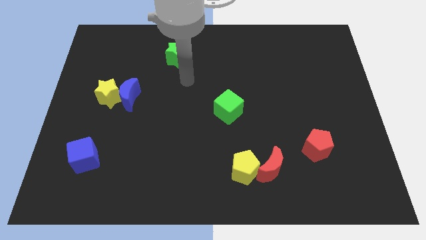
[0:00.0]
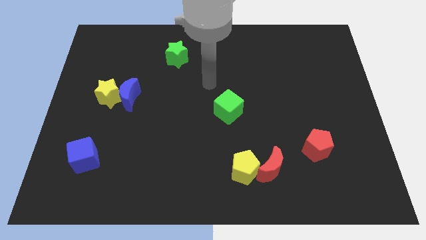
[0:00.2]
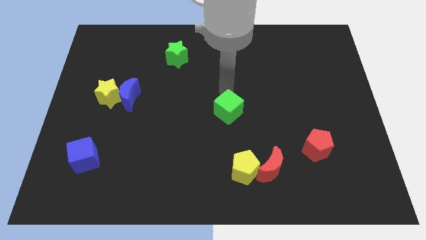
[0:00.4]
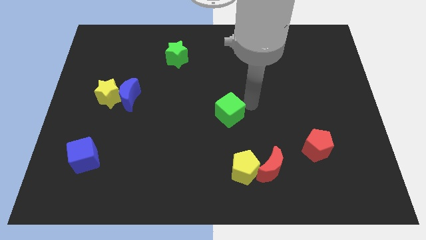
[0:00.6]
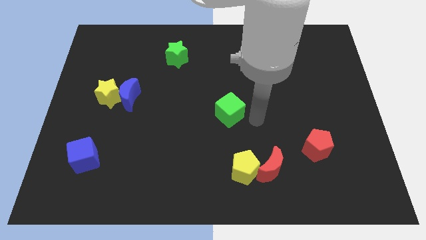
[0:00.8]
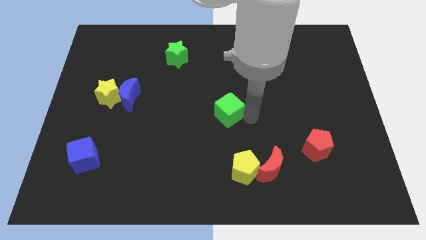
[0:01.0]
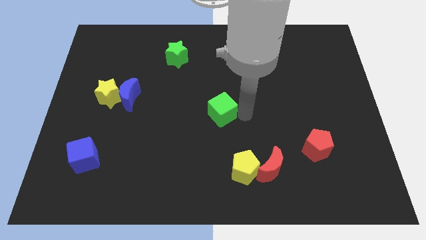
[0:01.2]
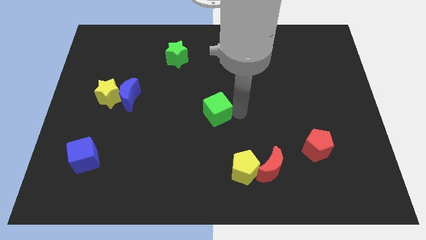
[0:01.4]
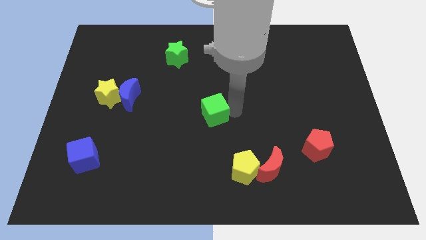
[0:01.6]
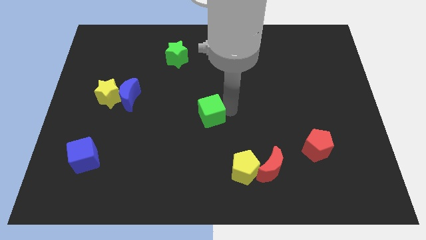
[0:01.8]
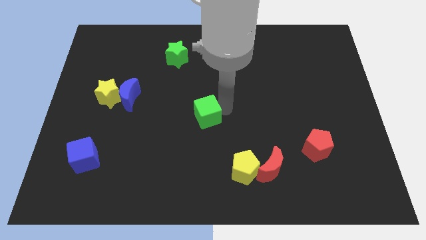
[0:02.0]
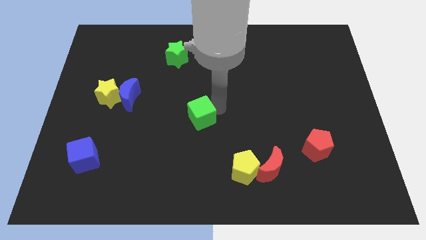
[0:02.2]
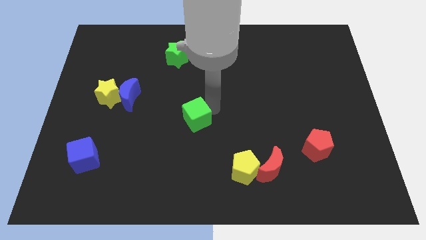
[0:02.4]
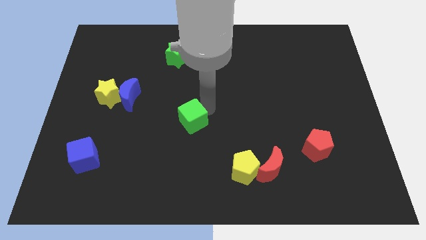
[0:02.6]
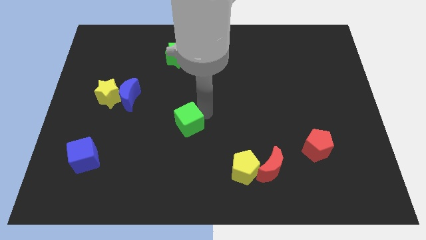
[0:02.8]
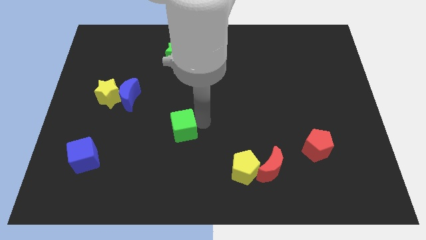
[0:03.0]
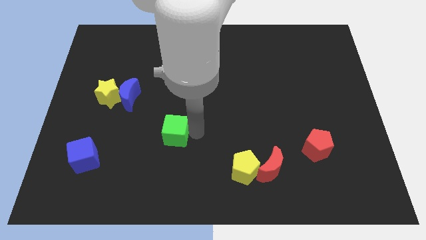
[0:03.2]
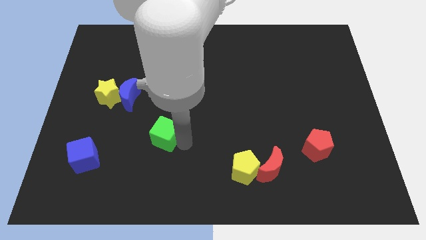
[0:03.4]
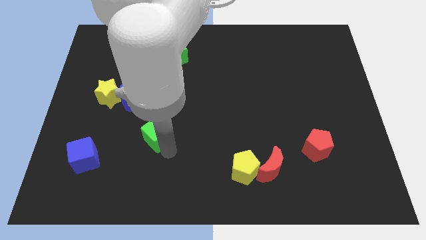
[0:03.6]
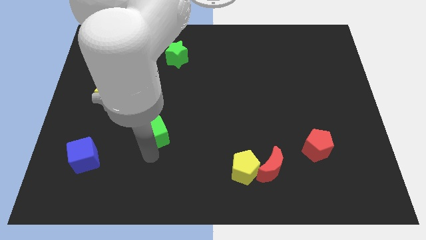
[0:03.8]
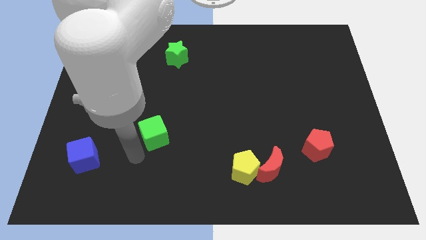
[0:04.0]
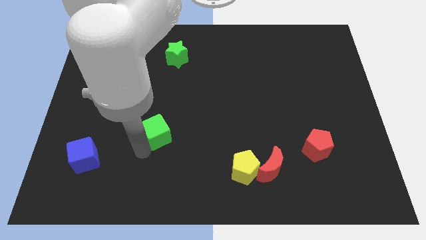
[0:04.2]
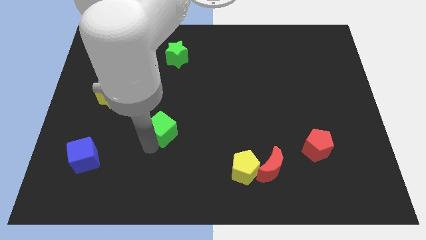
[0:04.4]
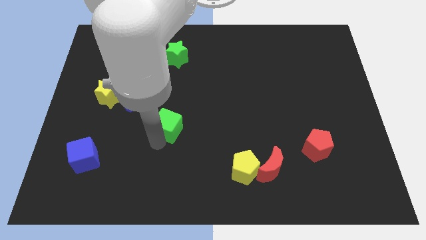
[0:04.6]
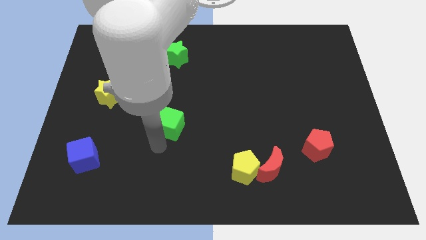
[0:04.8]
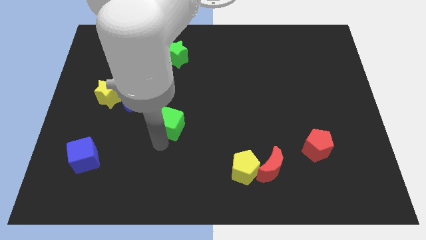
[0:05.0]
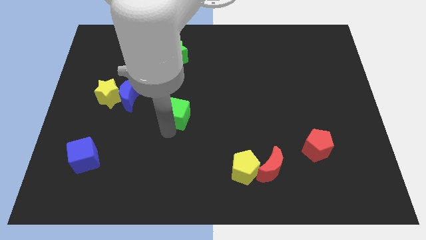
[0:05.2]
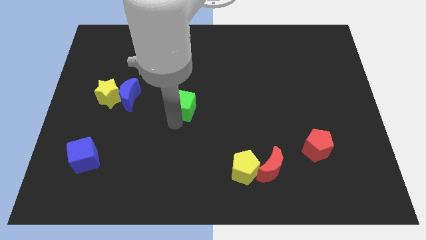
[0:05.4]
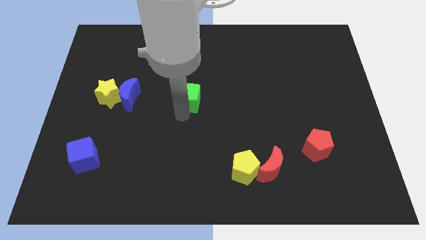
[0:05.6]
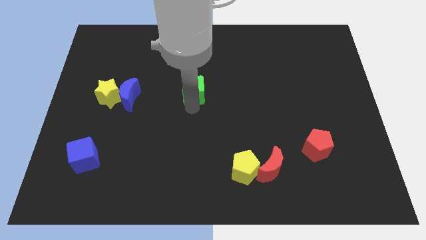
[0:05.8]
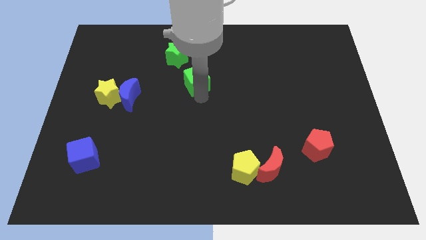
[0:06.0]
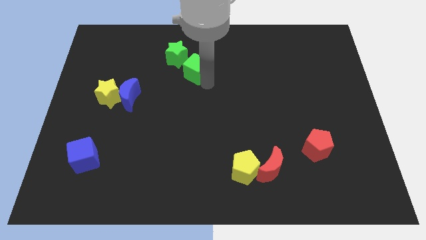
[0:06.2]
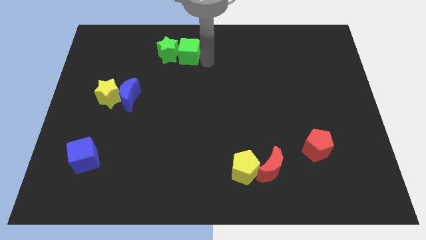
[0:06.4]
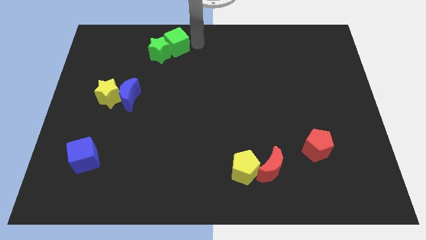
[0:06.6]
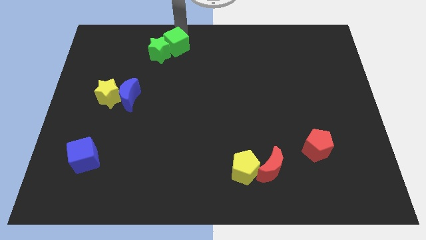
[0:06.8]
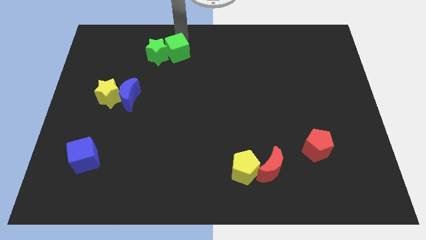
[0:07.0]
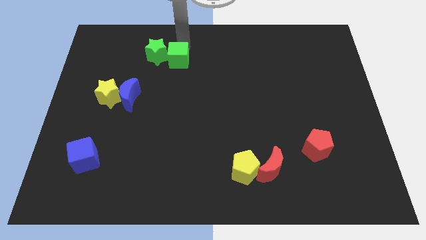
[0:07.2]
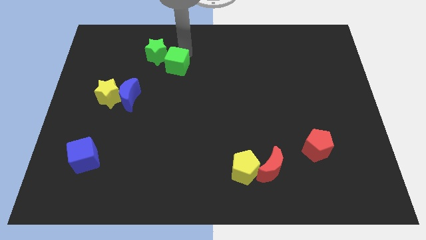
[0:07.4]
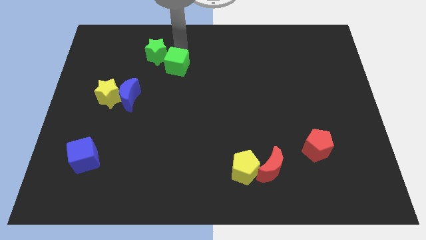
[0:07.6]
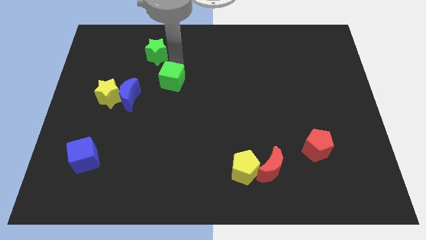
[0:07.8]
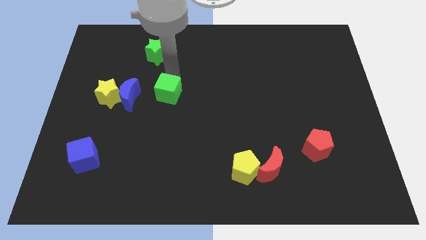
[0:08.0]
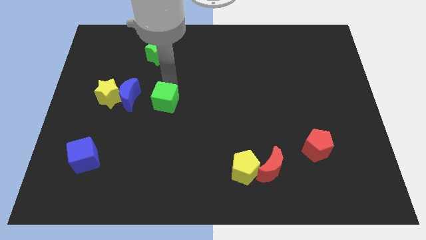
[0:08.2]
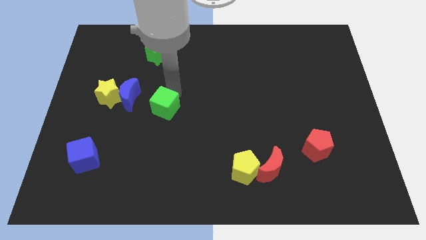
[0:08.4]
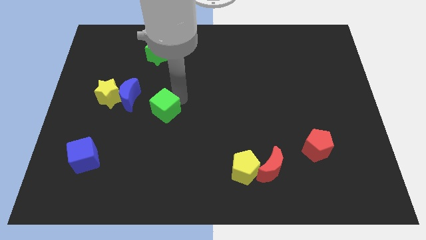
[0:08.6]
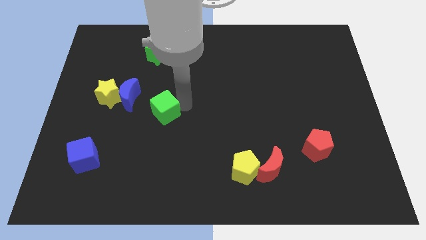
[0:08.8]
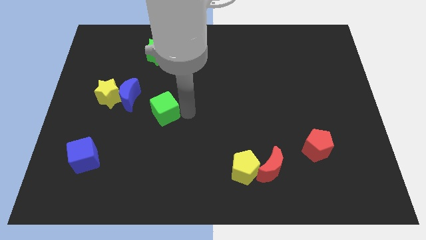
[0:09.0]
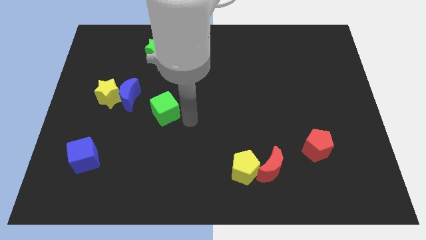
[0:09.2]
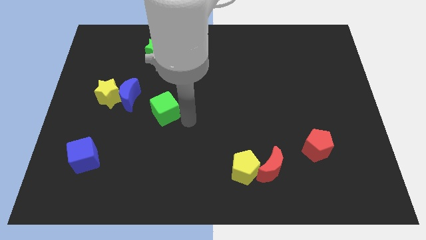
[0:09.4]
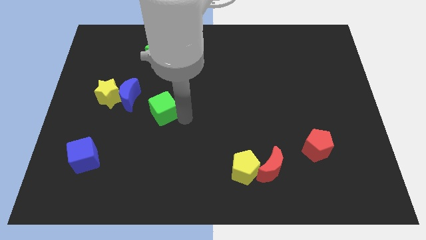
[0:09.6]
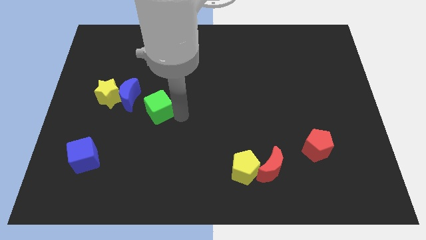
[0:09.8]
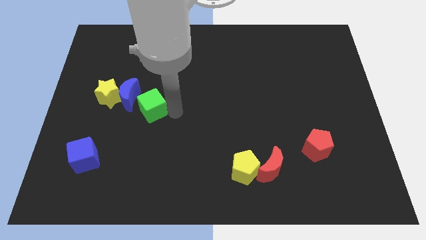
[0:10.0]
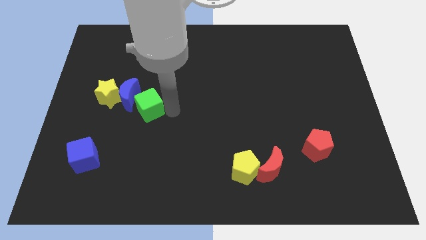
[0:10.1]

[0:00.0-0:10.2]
put the green cube next to the blue moon

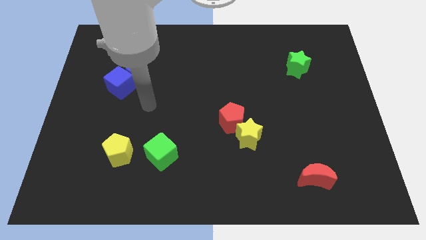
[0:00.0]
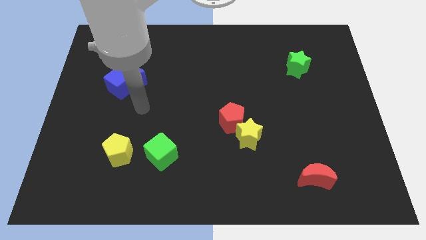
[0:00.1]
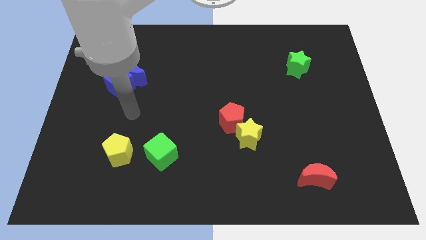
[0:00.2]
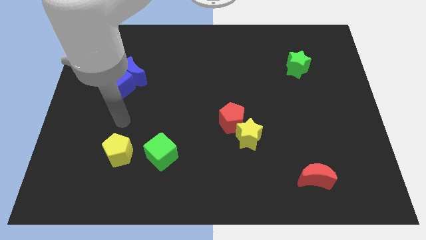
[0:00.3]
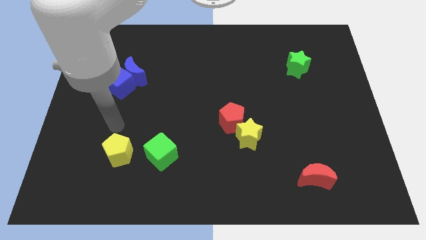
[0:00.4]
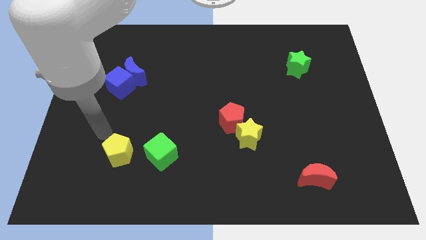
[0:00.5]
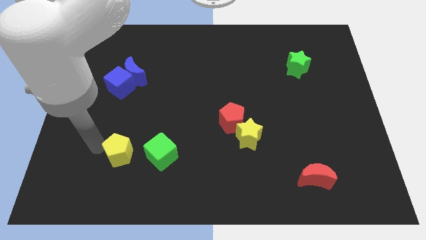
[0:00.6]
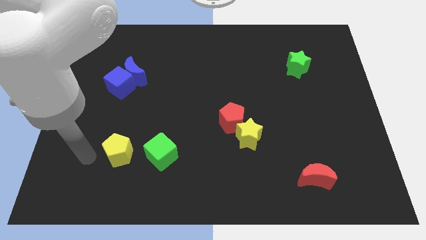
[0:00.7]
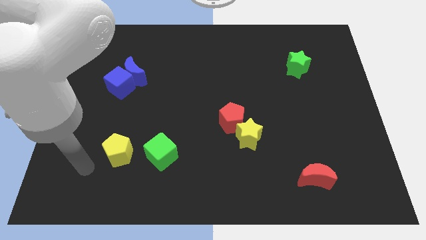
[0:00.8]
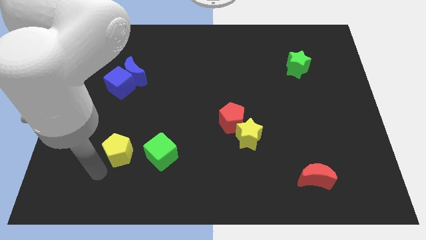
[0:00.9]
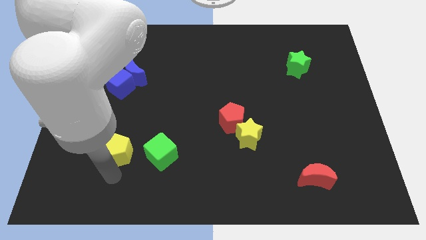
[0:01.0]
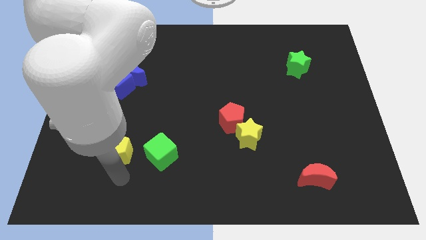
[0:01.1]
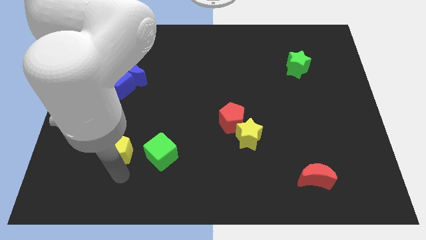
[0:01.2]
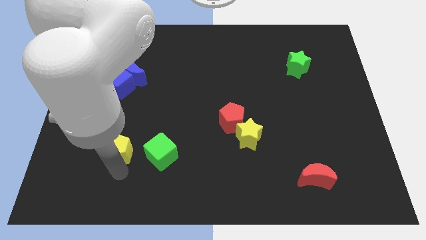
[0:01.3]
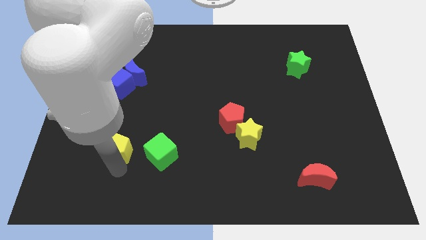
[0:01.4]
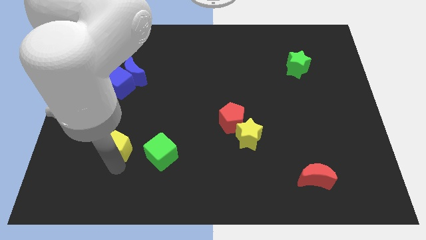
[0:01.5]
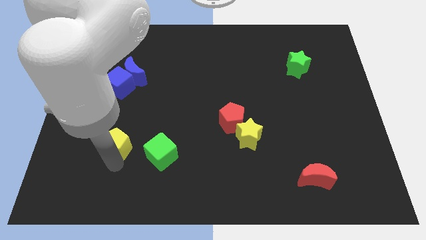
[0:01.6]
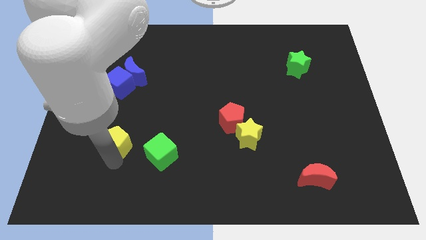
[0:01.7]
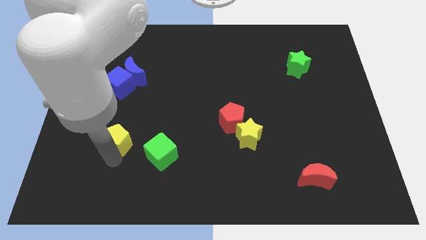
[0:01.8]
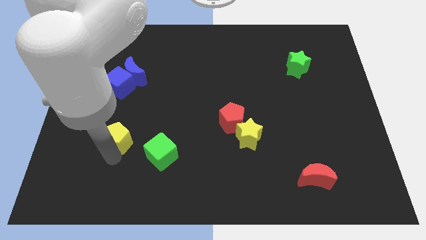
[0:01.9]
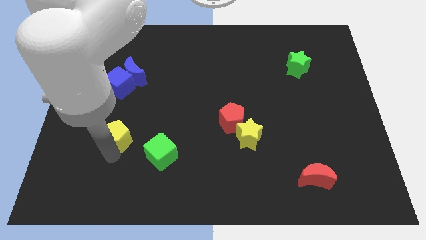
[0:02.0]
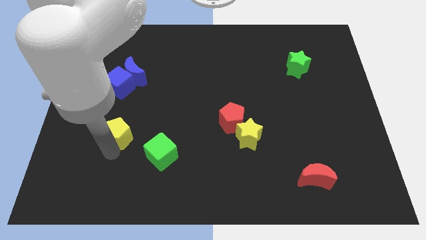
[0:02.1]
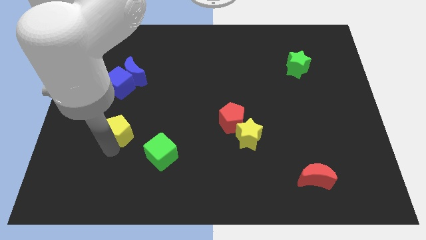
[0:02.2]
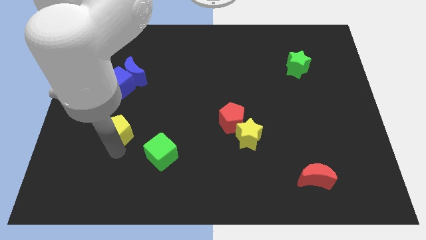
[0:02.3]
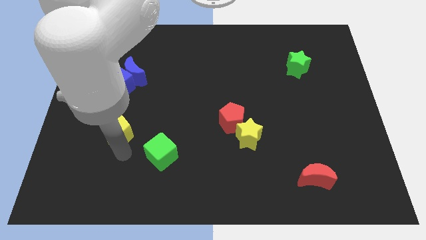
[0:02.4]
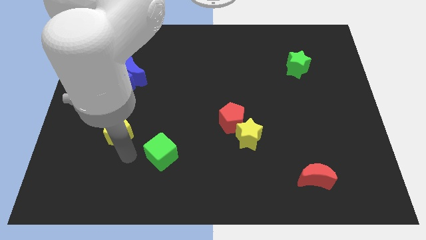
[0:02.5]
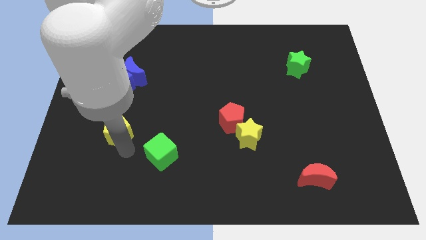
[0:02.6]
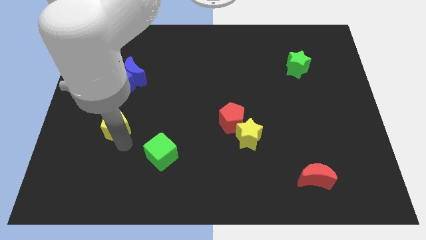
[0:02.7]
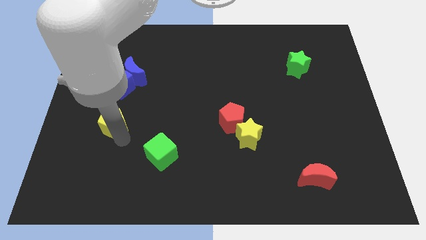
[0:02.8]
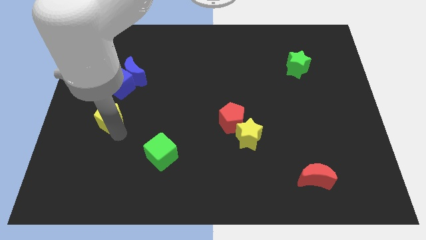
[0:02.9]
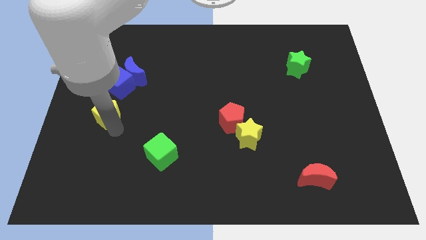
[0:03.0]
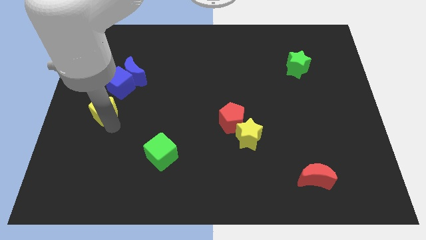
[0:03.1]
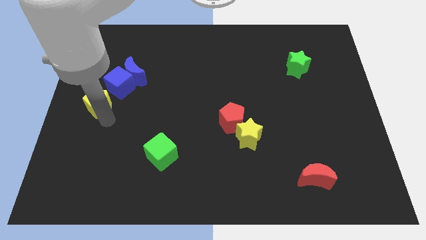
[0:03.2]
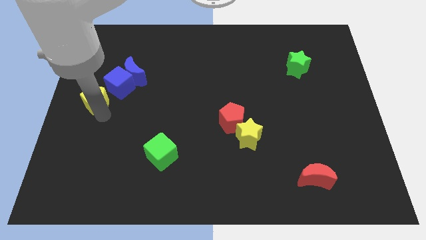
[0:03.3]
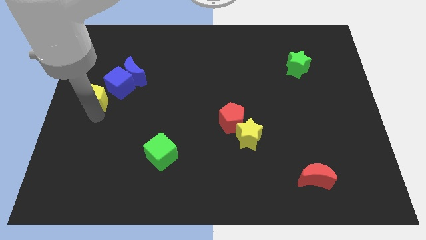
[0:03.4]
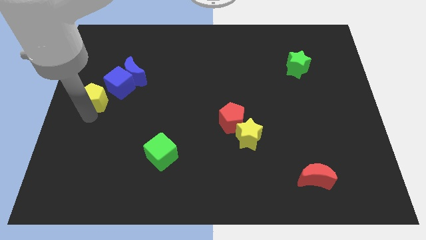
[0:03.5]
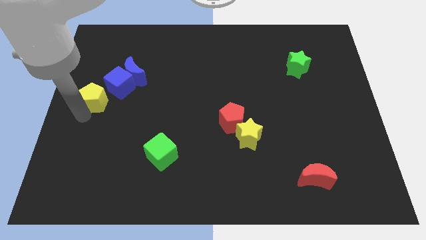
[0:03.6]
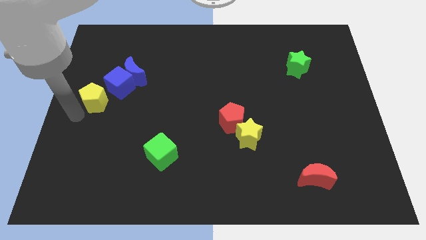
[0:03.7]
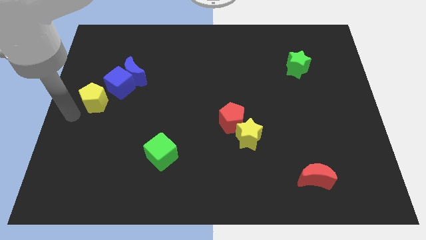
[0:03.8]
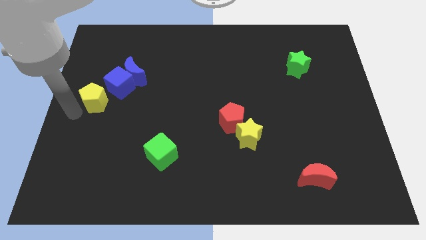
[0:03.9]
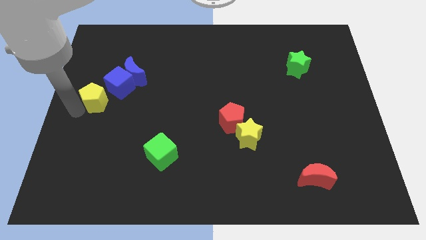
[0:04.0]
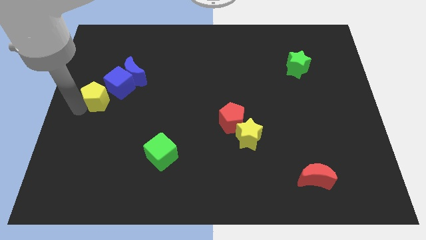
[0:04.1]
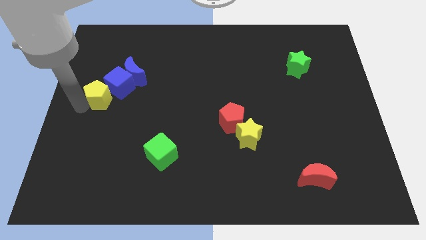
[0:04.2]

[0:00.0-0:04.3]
slide the yellow pentagon towards the blue cube
